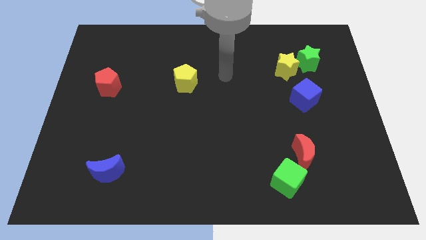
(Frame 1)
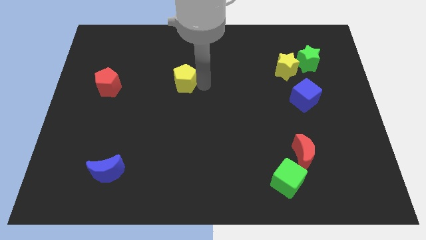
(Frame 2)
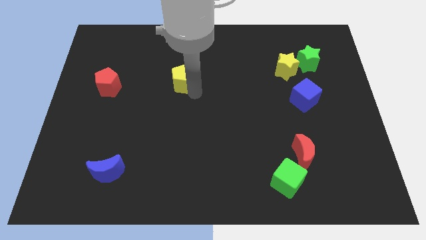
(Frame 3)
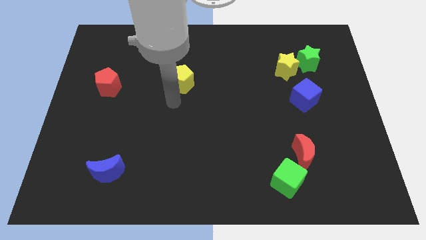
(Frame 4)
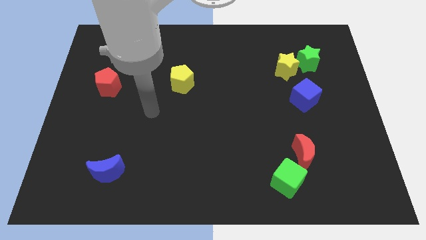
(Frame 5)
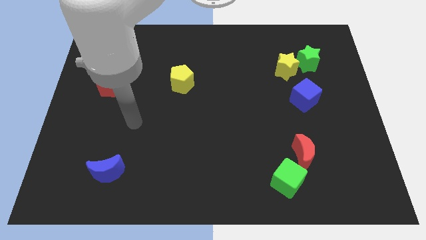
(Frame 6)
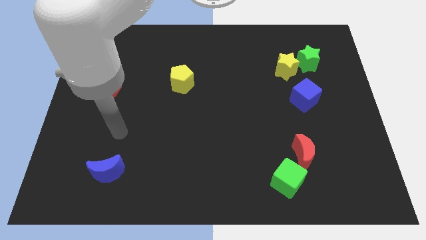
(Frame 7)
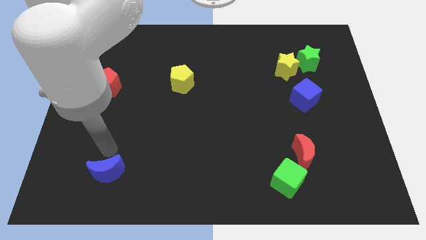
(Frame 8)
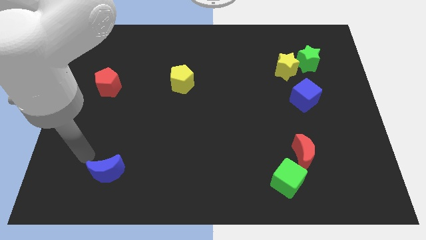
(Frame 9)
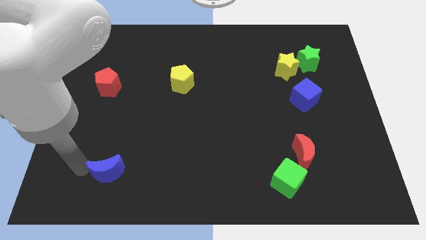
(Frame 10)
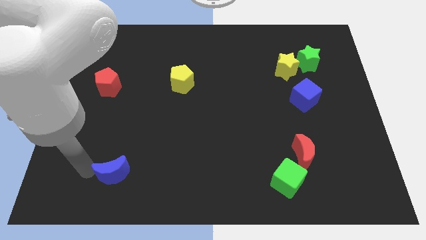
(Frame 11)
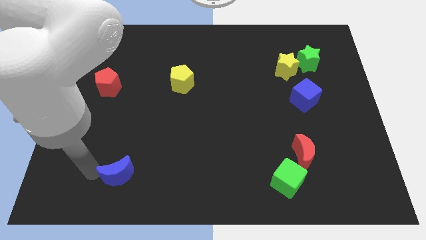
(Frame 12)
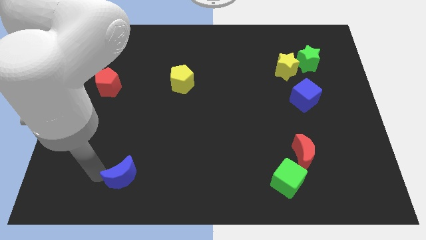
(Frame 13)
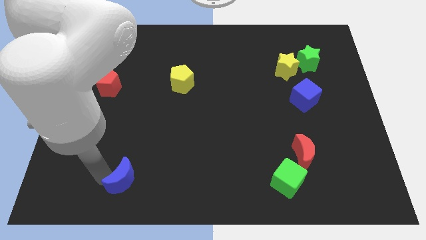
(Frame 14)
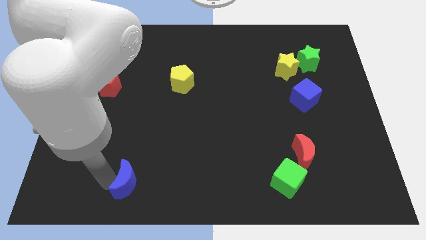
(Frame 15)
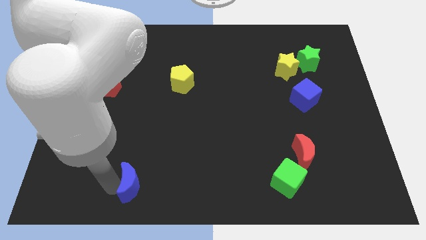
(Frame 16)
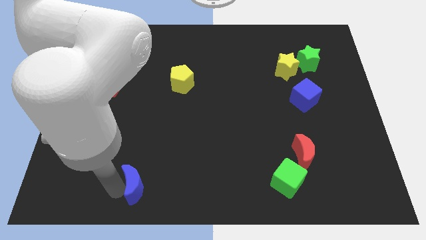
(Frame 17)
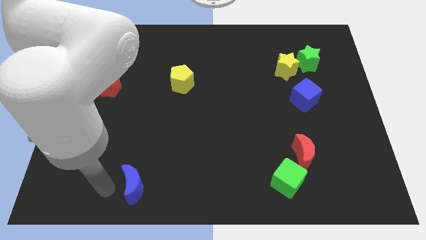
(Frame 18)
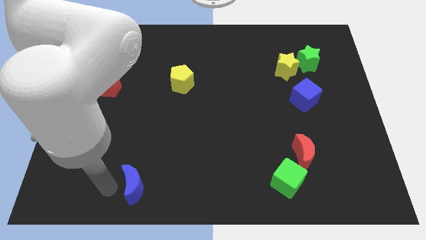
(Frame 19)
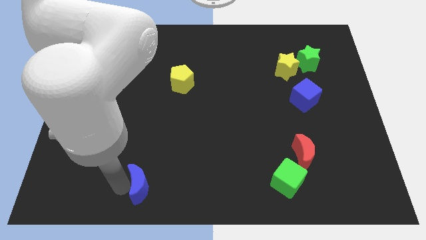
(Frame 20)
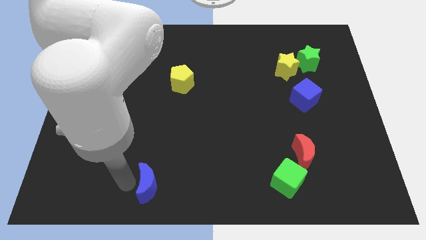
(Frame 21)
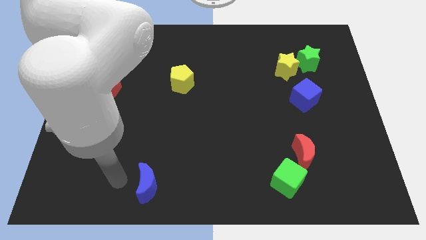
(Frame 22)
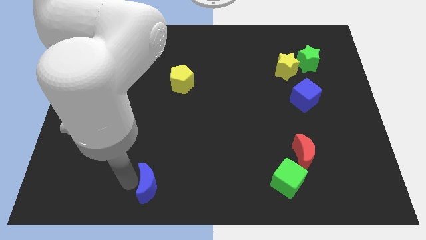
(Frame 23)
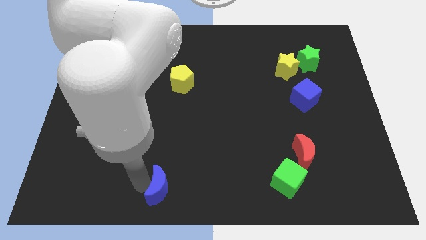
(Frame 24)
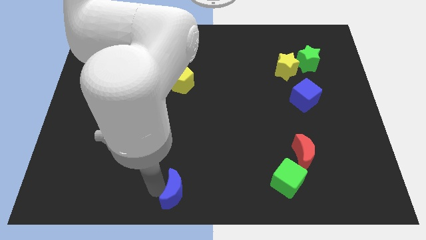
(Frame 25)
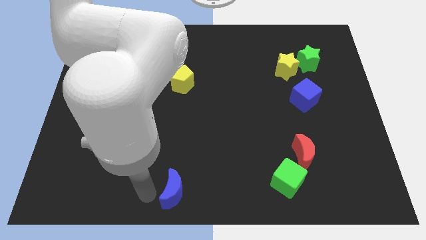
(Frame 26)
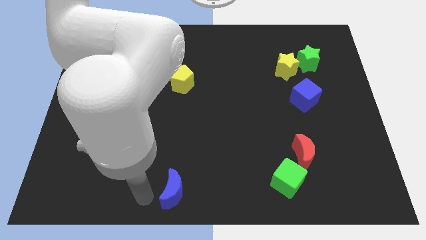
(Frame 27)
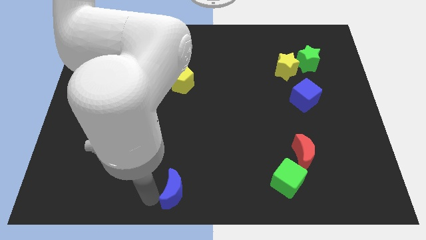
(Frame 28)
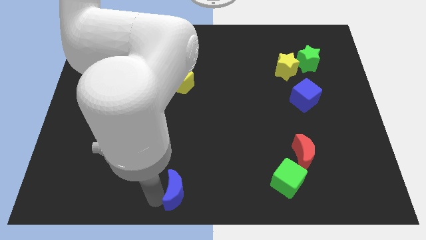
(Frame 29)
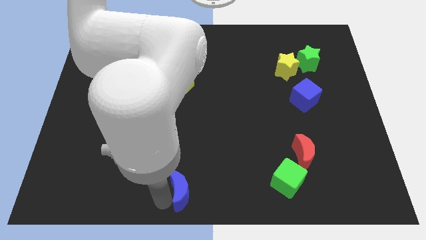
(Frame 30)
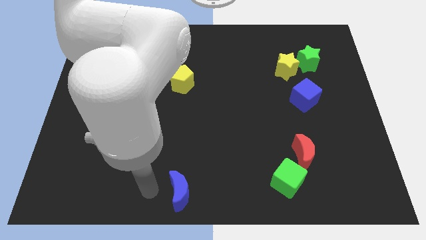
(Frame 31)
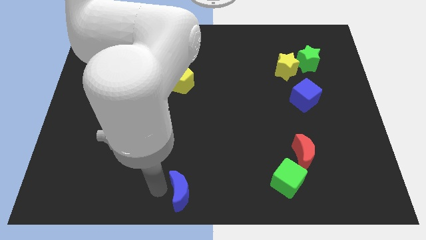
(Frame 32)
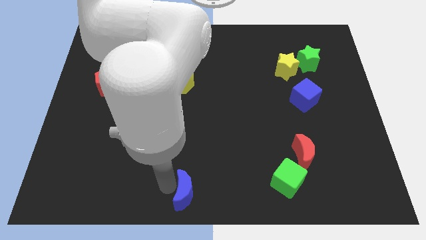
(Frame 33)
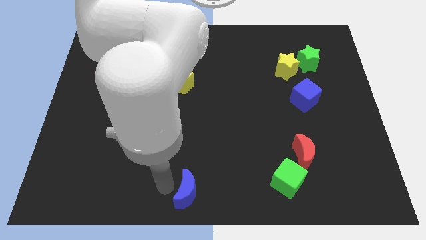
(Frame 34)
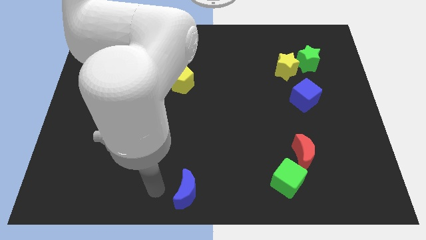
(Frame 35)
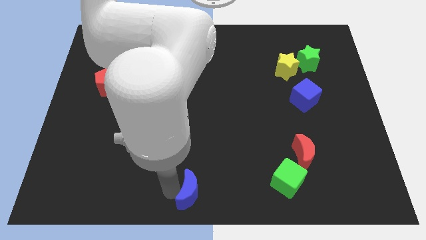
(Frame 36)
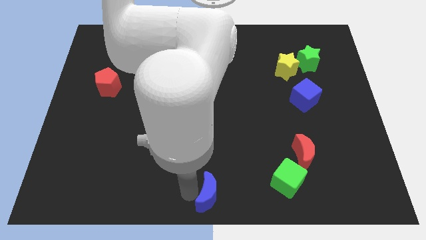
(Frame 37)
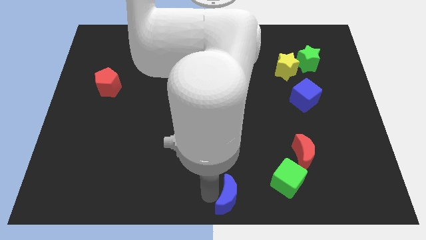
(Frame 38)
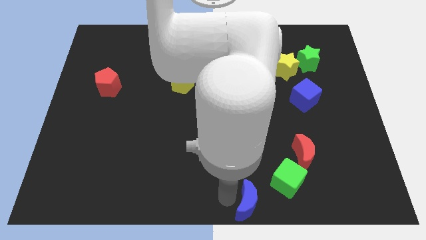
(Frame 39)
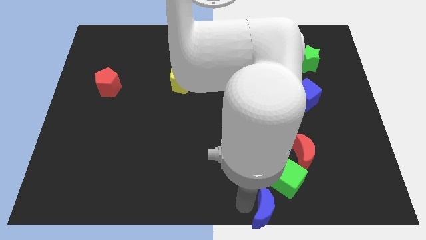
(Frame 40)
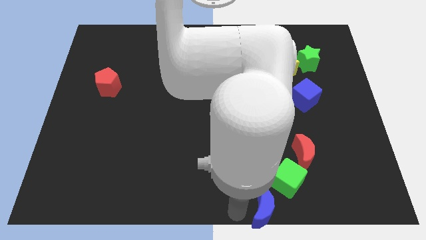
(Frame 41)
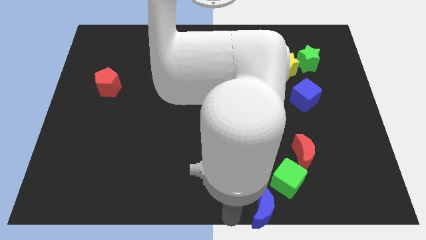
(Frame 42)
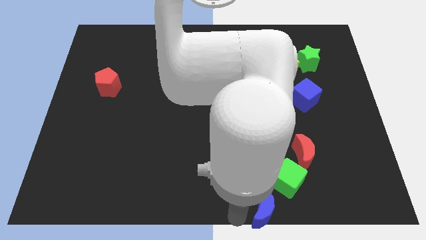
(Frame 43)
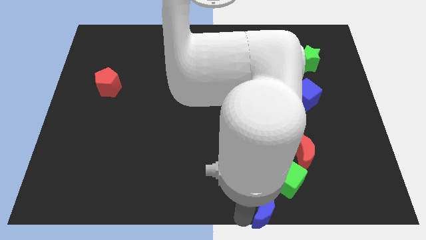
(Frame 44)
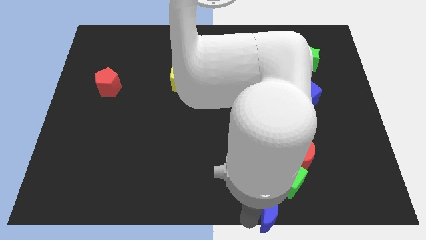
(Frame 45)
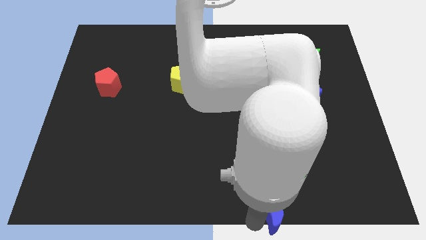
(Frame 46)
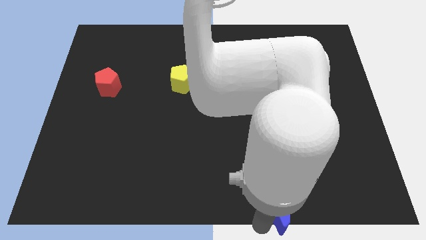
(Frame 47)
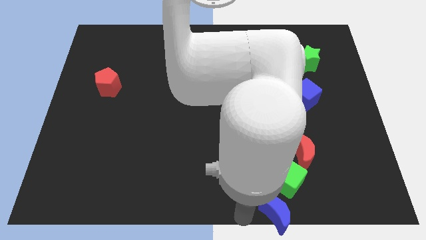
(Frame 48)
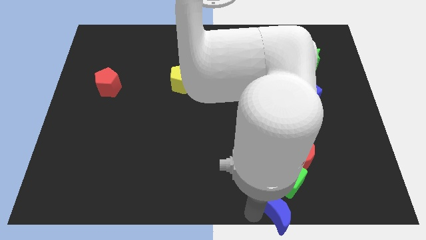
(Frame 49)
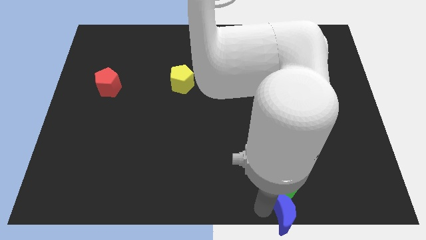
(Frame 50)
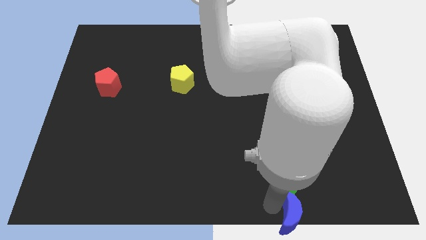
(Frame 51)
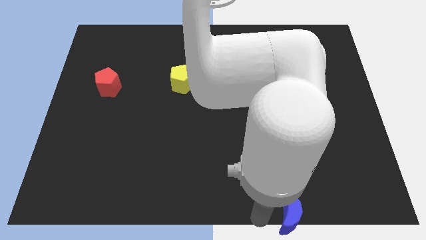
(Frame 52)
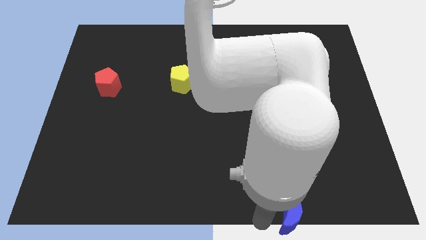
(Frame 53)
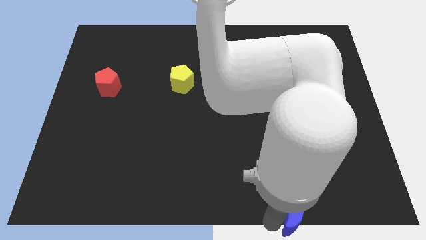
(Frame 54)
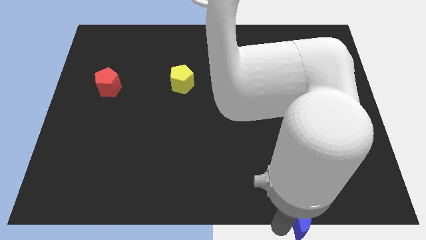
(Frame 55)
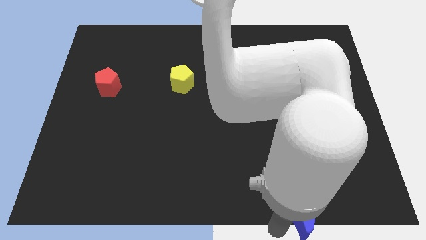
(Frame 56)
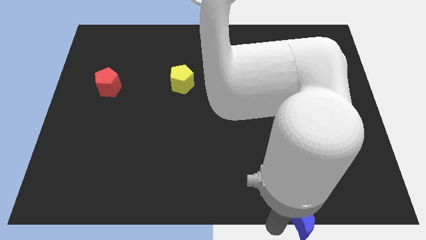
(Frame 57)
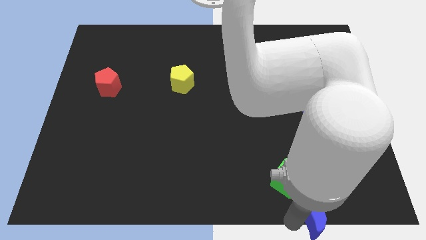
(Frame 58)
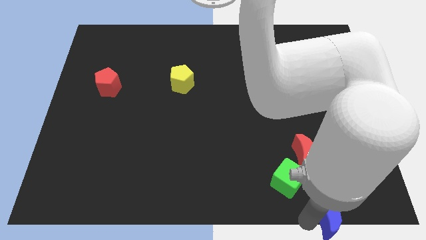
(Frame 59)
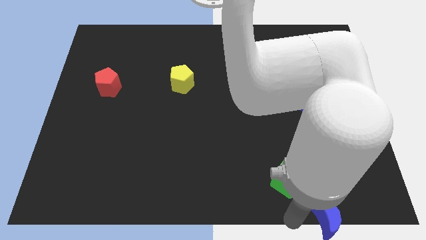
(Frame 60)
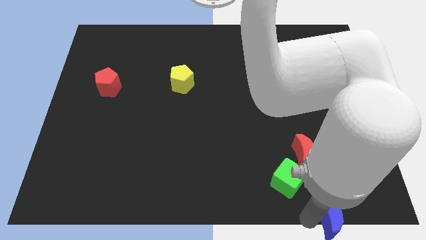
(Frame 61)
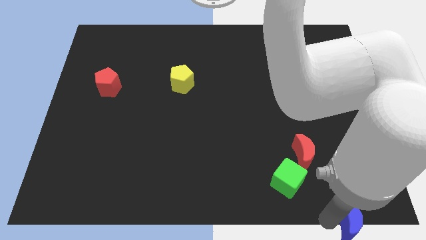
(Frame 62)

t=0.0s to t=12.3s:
put the blue moon to the lower right corner
